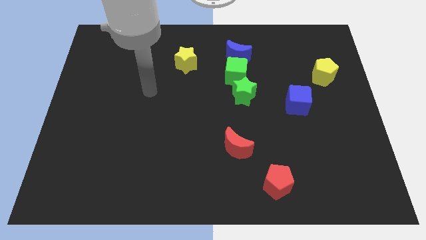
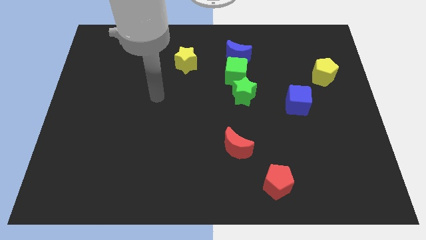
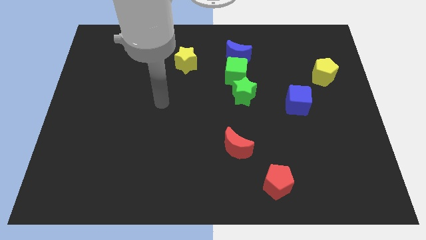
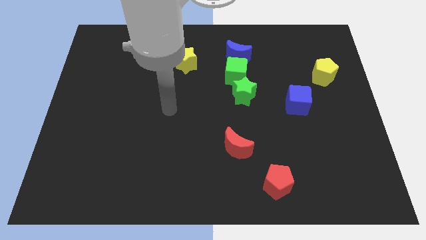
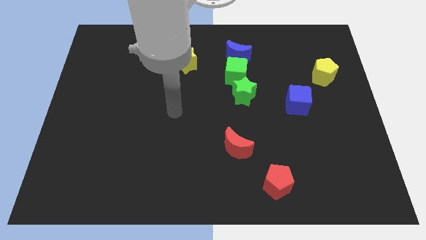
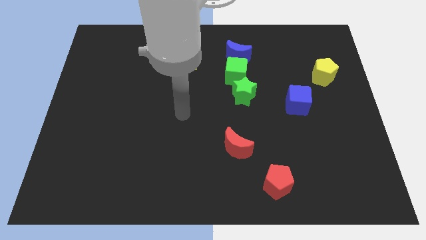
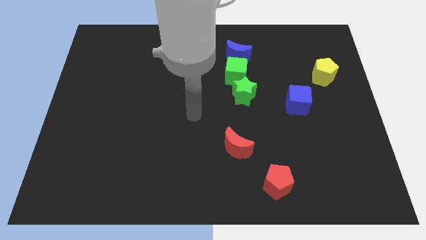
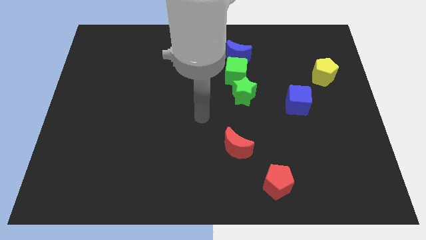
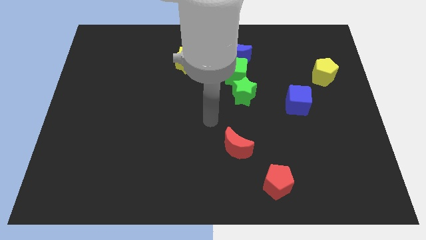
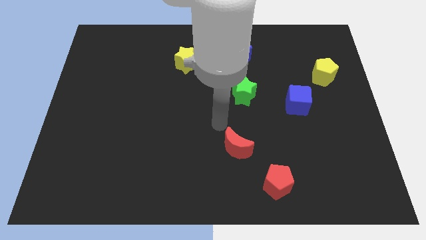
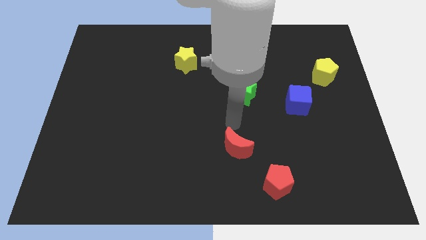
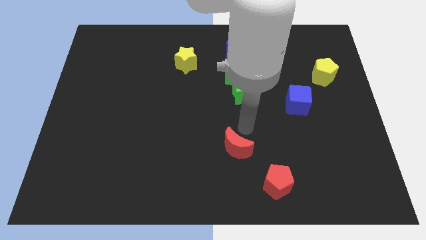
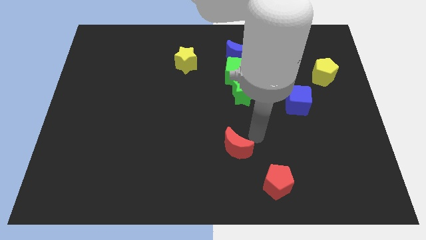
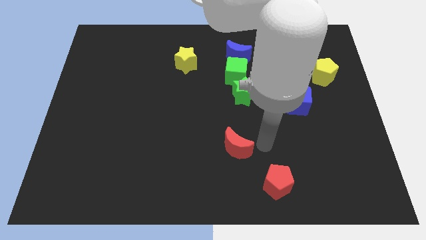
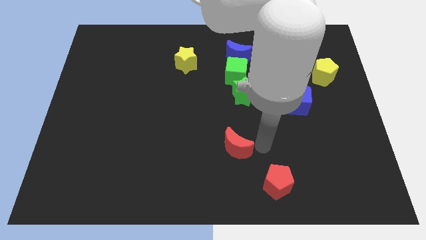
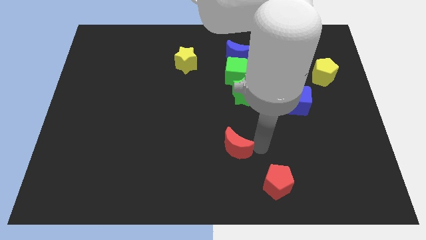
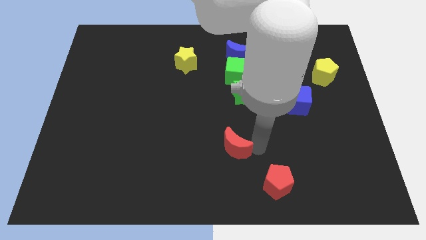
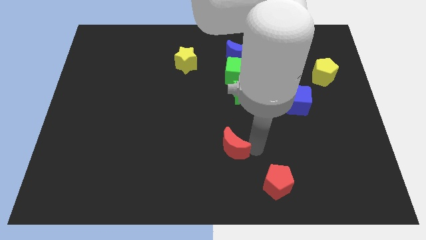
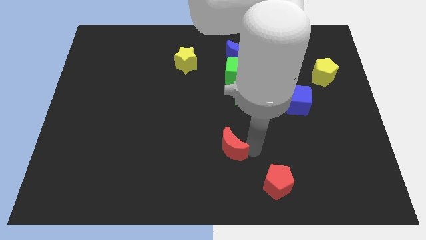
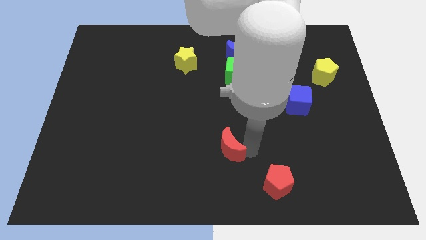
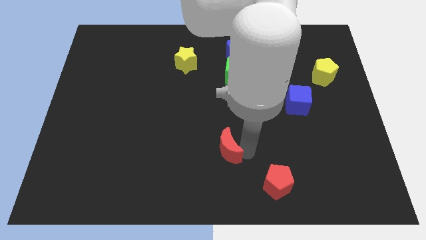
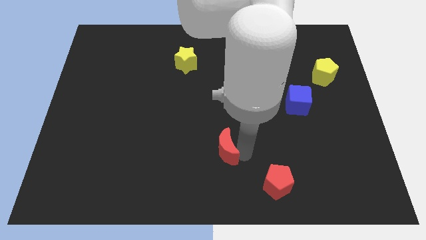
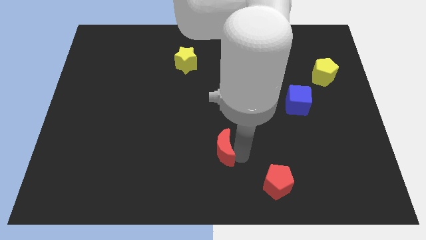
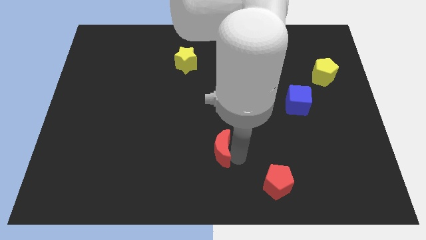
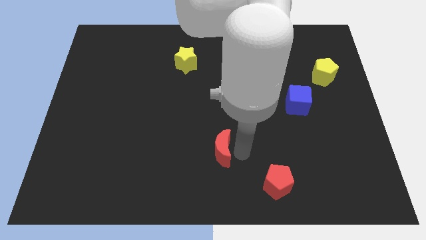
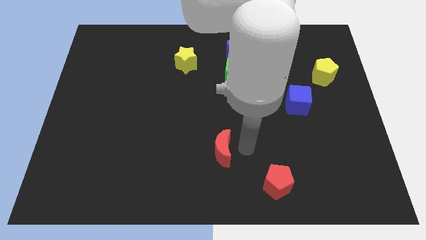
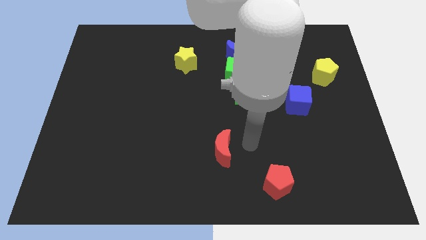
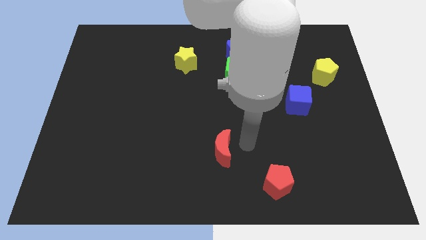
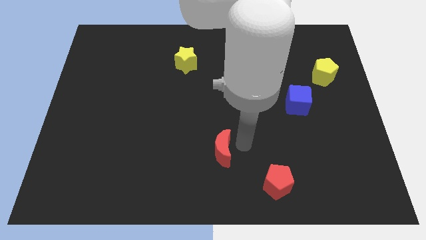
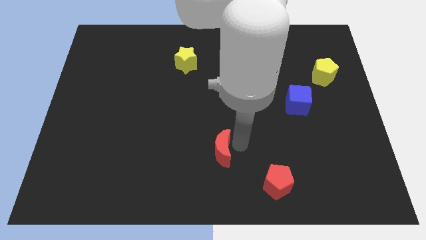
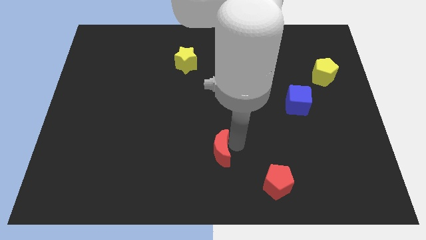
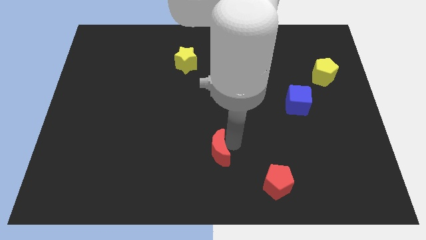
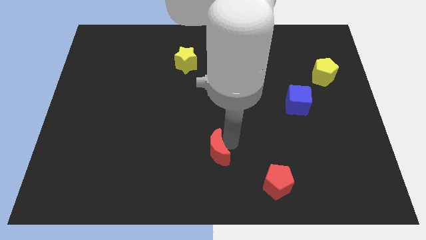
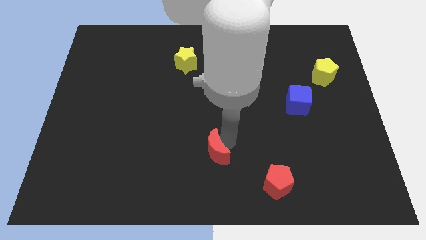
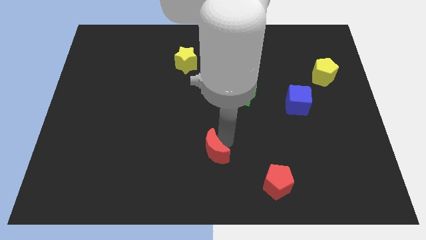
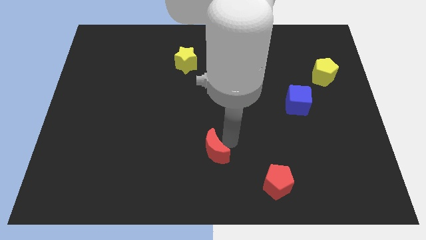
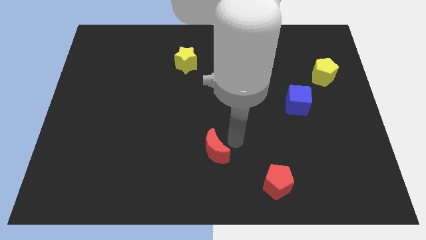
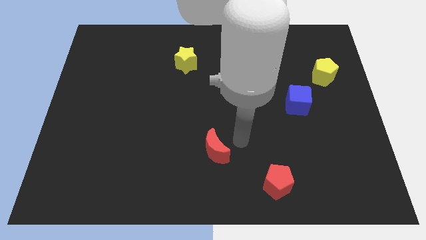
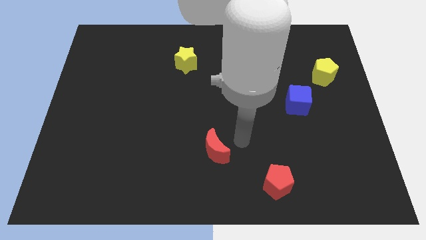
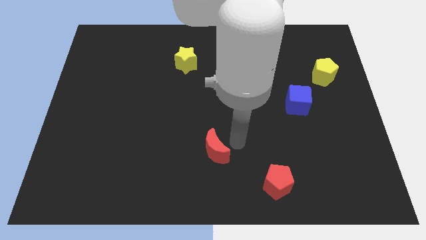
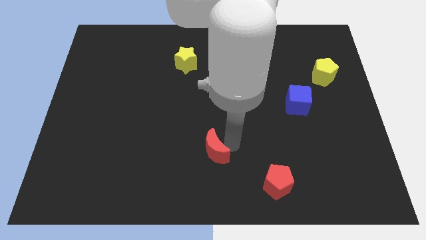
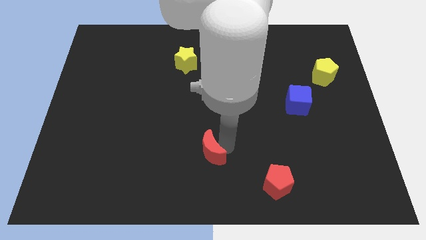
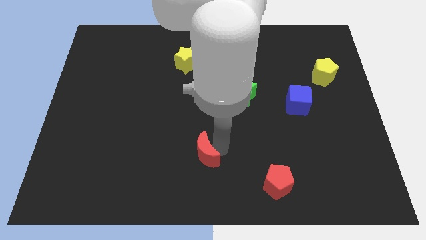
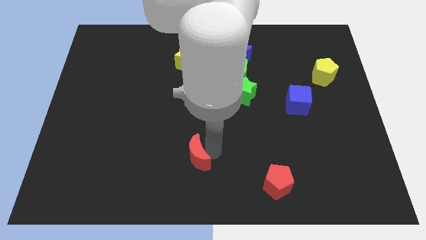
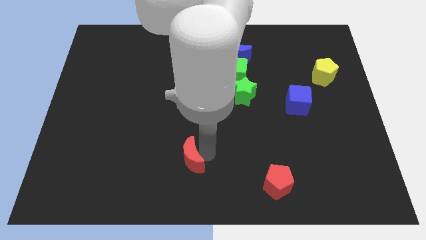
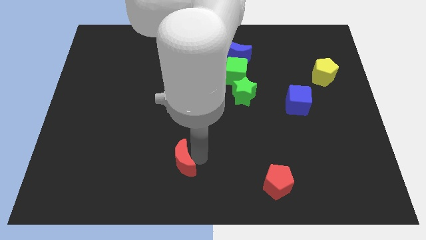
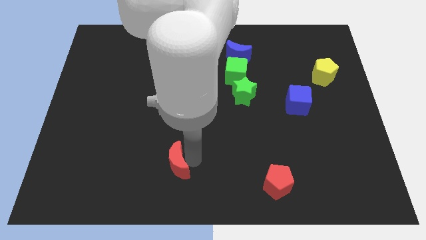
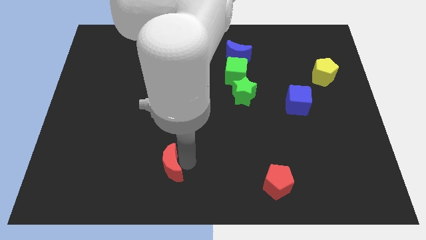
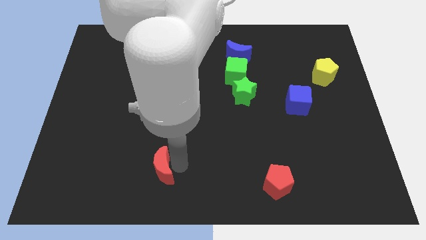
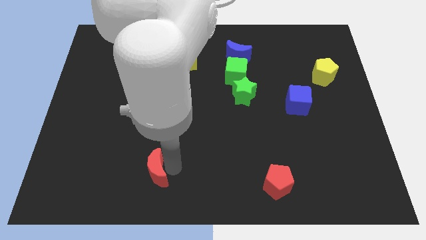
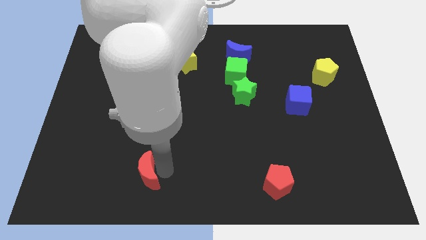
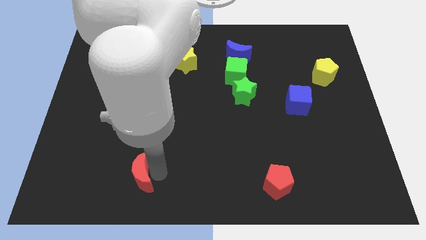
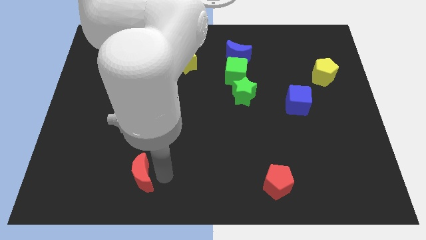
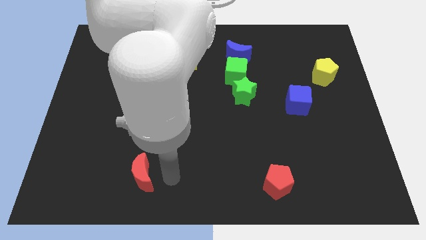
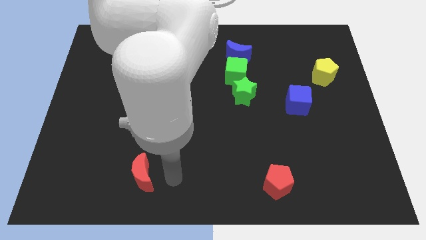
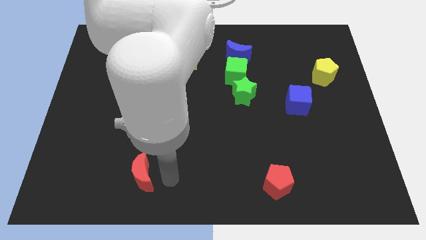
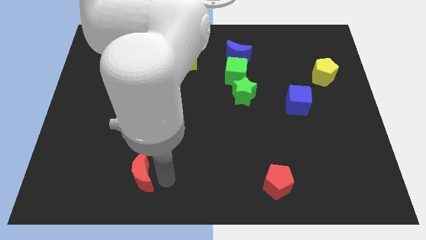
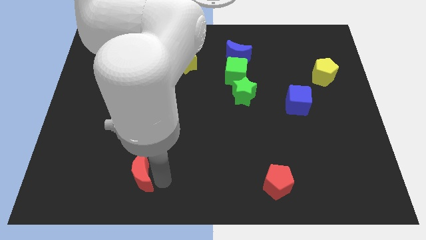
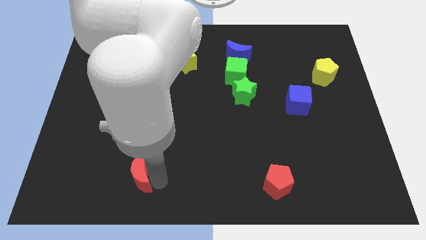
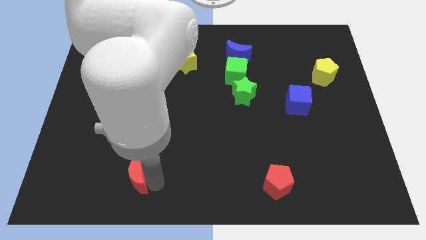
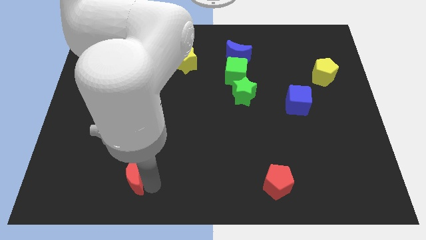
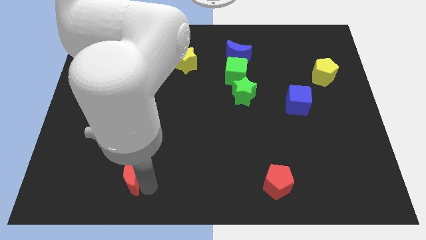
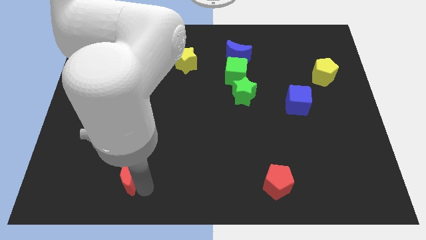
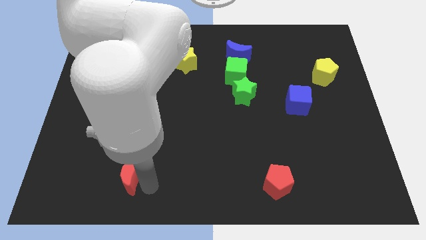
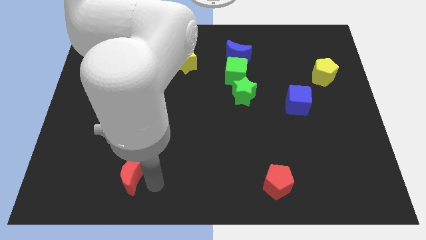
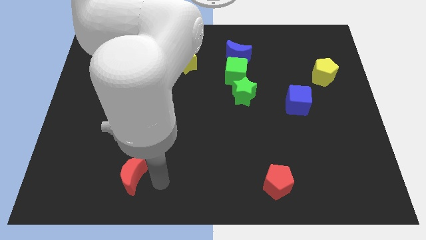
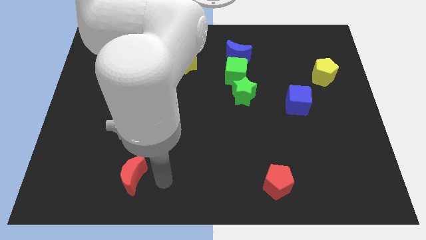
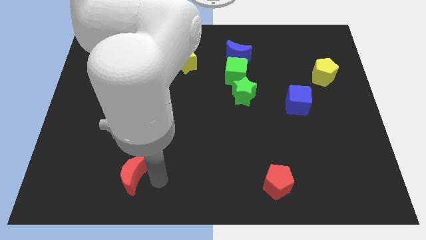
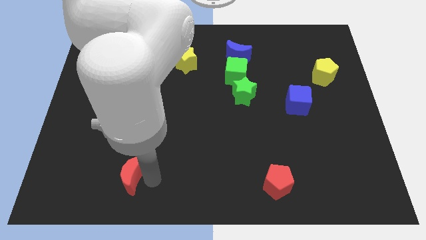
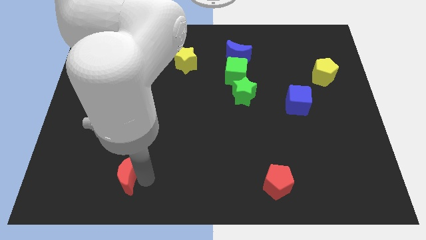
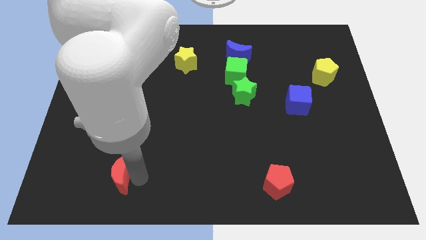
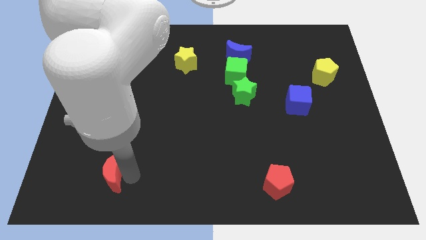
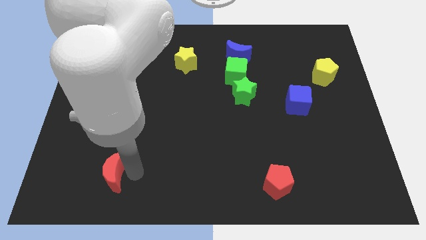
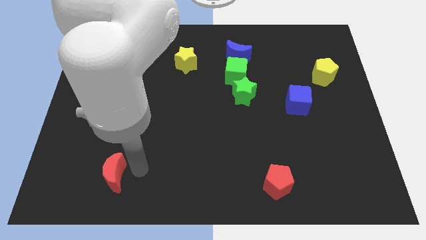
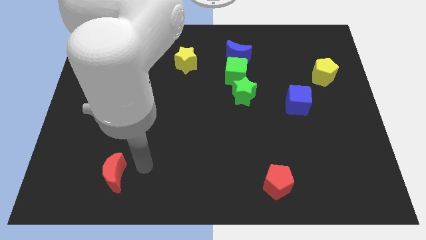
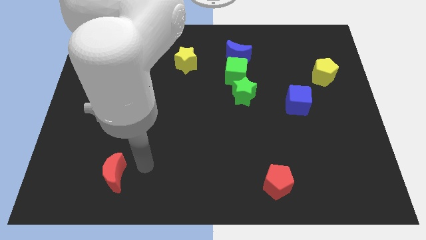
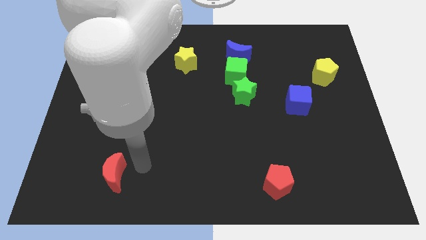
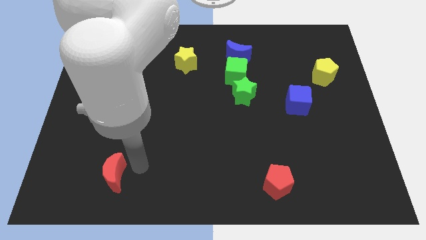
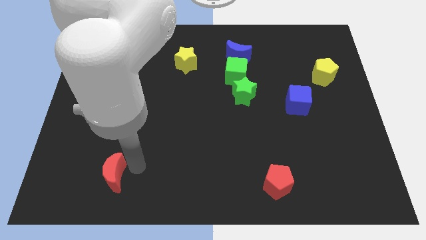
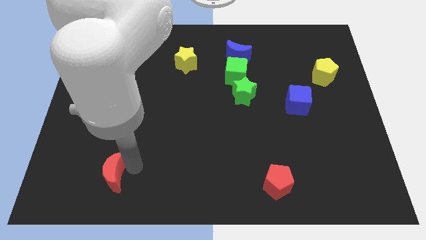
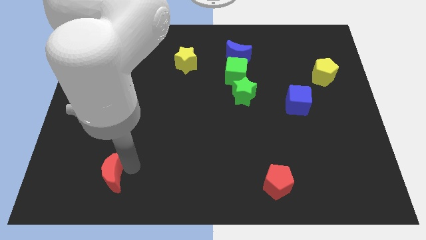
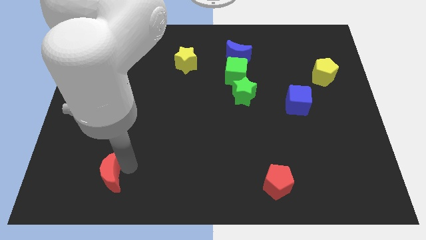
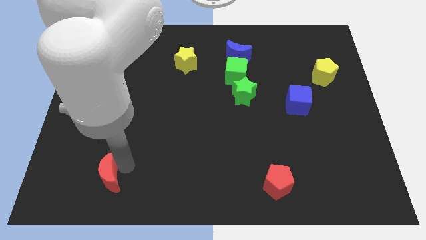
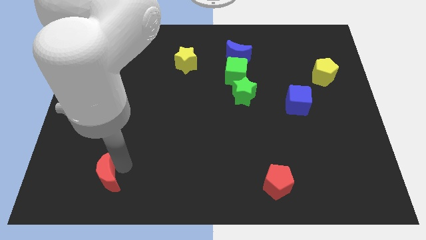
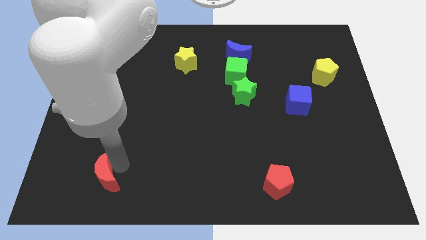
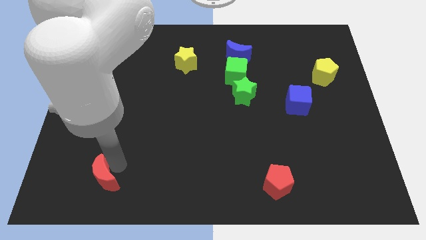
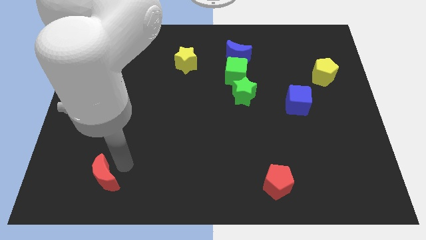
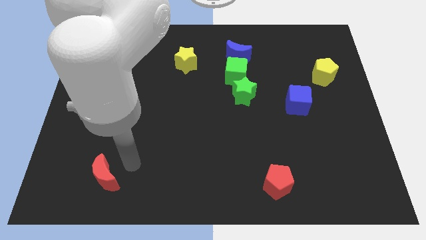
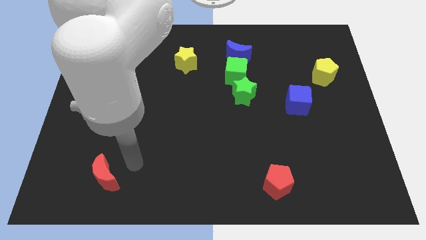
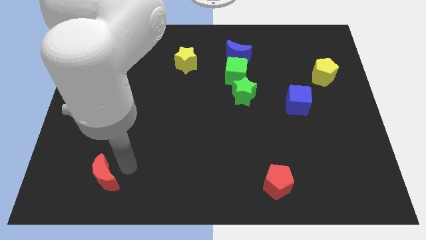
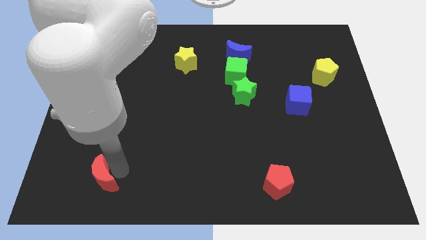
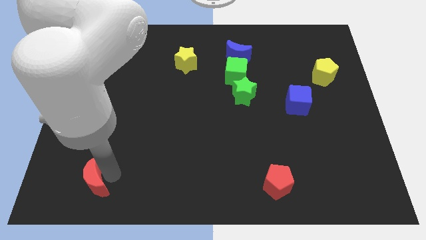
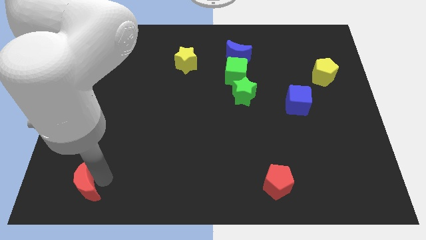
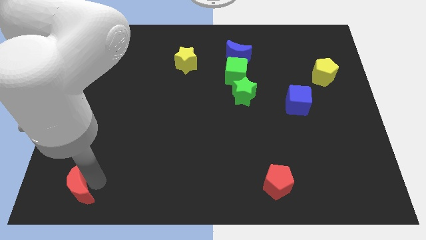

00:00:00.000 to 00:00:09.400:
push the red moon to the lower left corner
